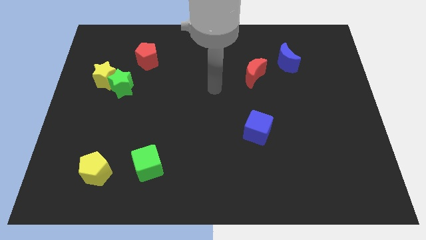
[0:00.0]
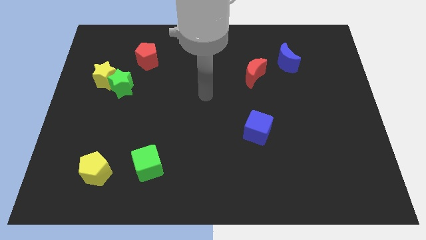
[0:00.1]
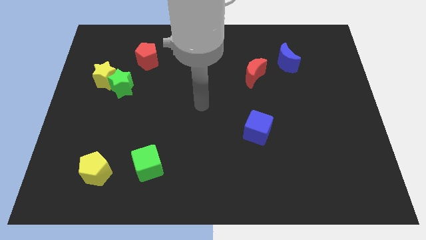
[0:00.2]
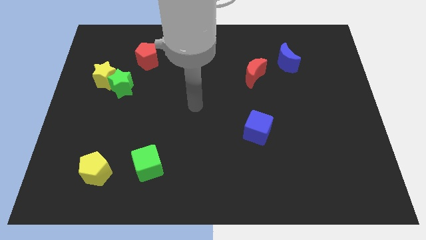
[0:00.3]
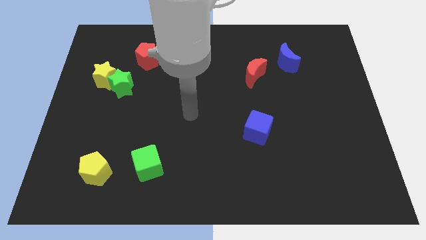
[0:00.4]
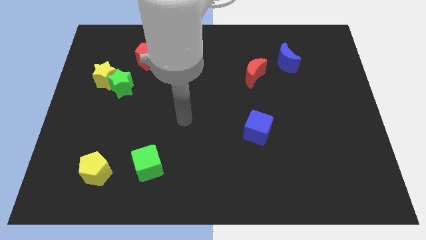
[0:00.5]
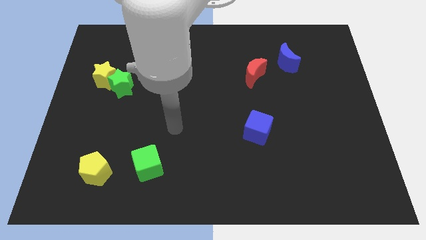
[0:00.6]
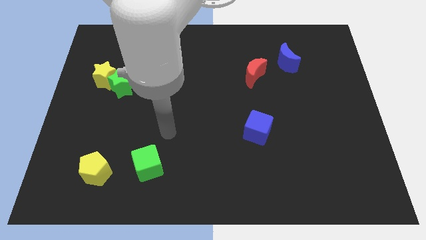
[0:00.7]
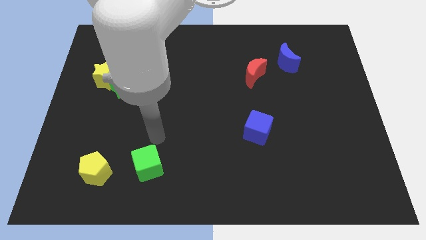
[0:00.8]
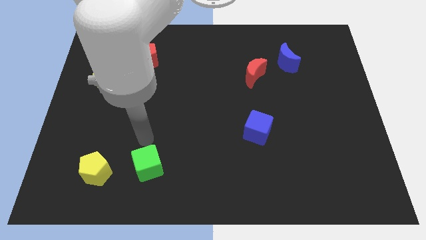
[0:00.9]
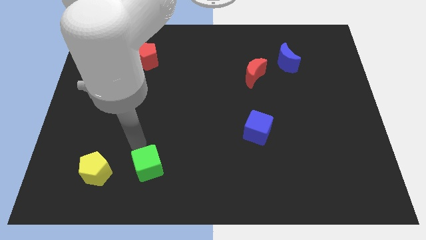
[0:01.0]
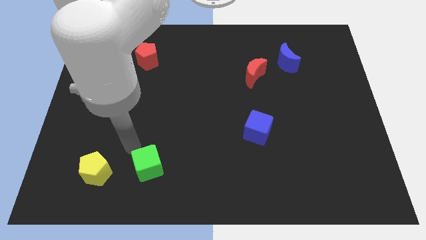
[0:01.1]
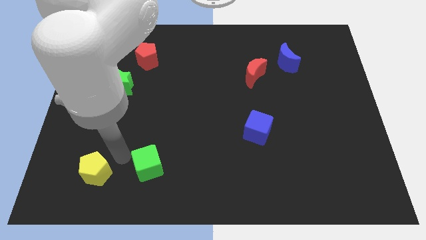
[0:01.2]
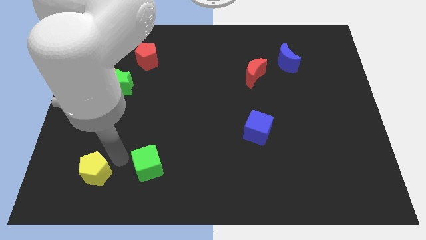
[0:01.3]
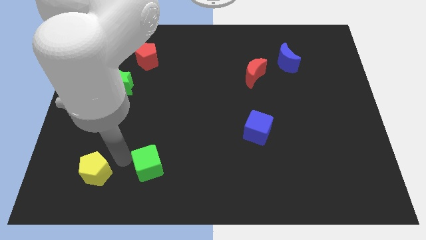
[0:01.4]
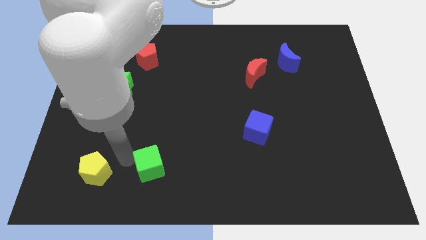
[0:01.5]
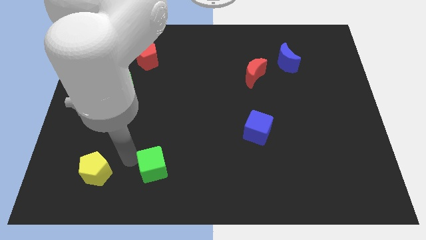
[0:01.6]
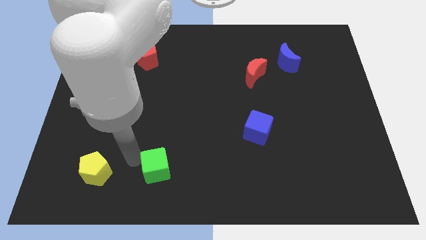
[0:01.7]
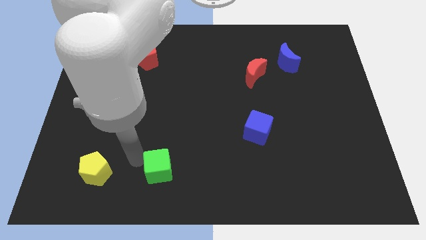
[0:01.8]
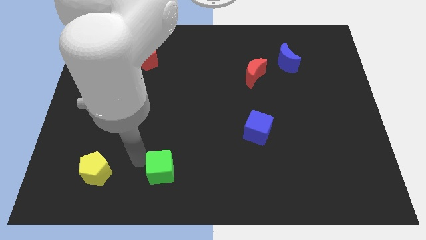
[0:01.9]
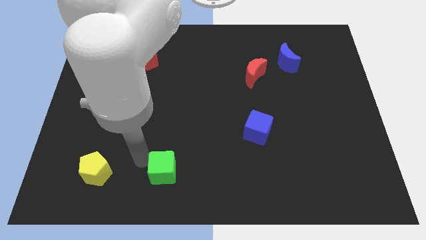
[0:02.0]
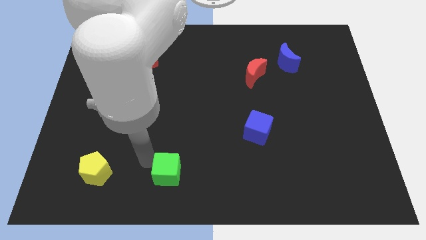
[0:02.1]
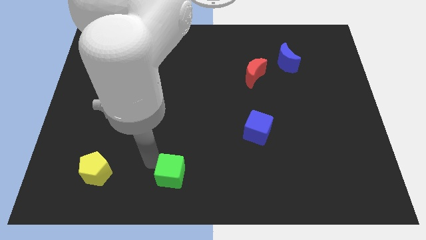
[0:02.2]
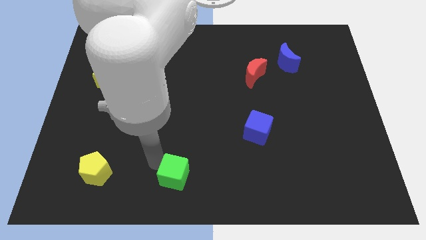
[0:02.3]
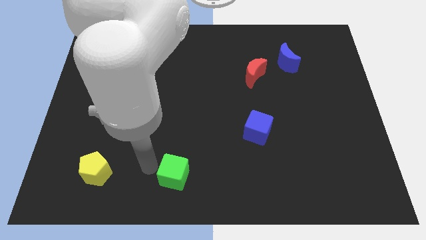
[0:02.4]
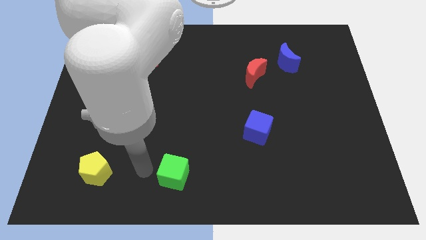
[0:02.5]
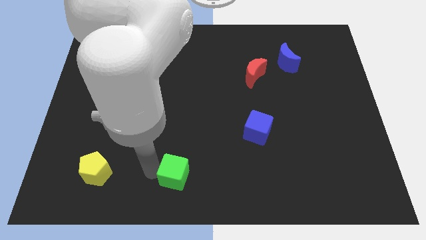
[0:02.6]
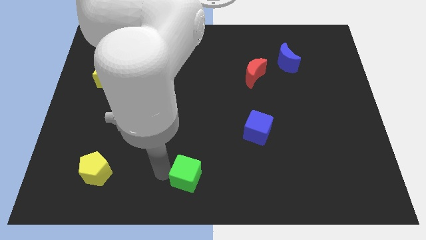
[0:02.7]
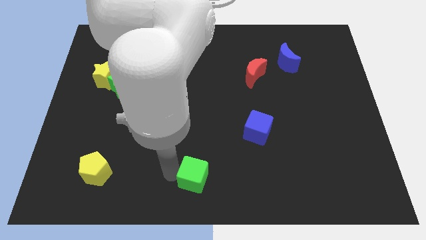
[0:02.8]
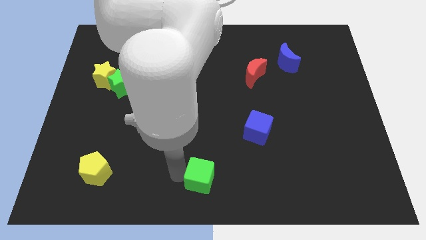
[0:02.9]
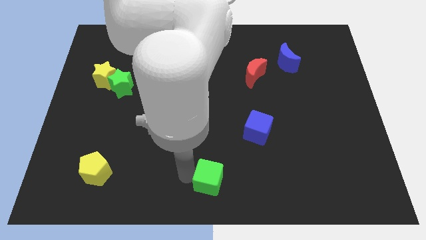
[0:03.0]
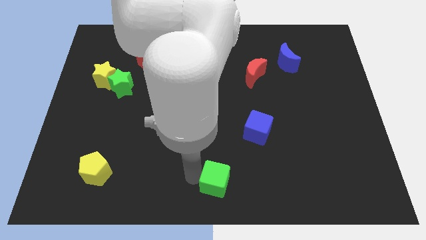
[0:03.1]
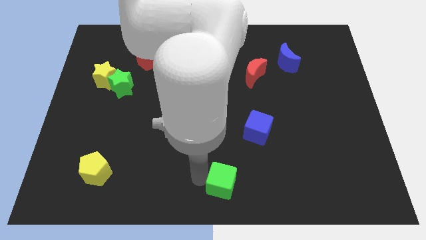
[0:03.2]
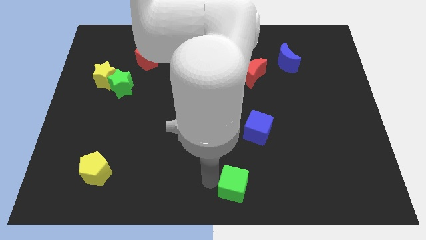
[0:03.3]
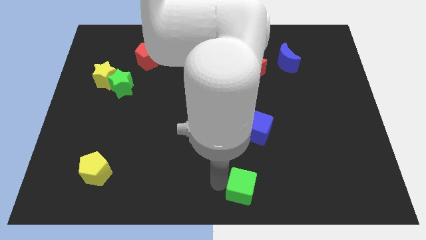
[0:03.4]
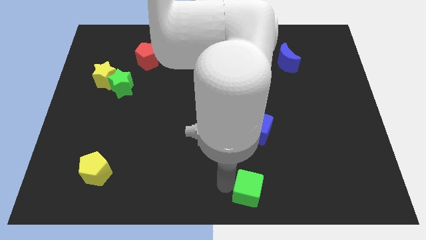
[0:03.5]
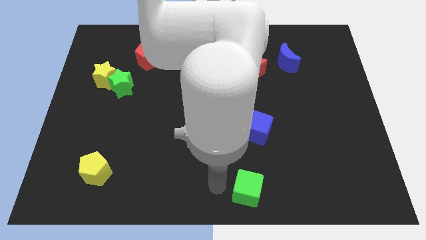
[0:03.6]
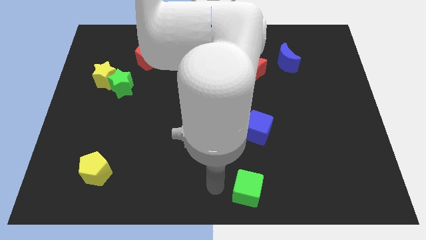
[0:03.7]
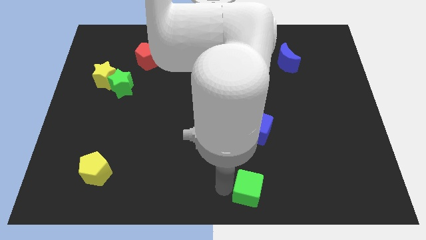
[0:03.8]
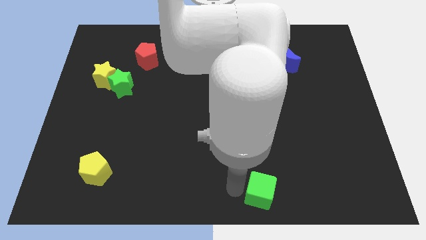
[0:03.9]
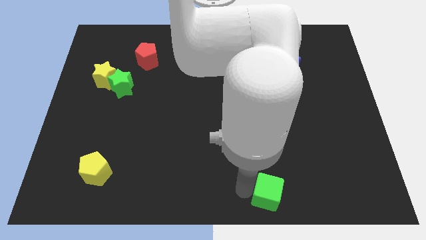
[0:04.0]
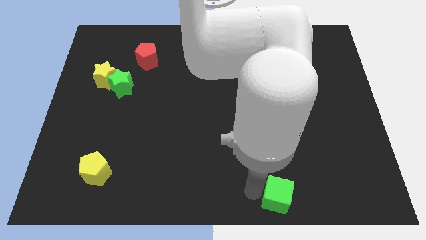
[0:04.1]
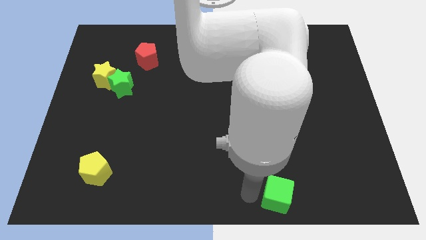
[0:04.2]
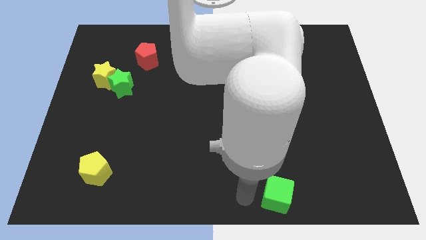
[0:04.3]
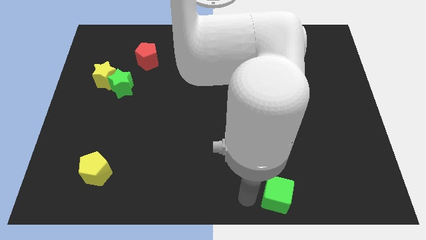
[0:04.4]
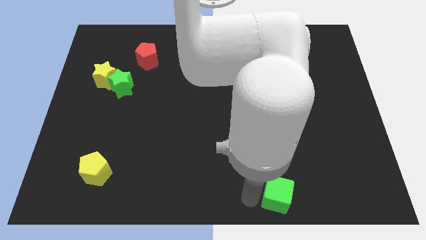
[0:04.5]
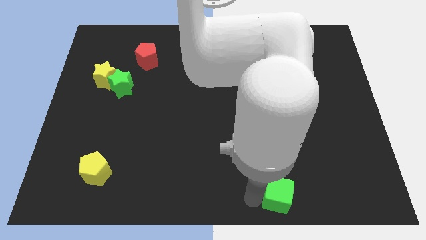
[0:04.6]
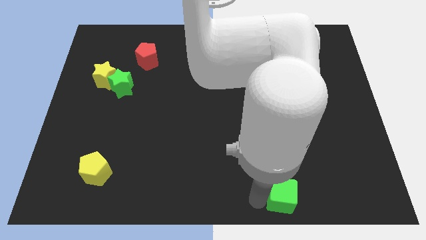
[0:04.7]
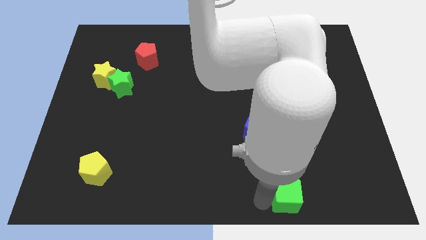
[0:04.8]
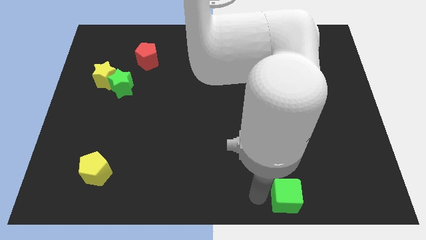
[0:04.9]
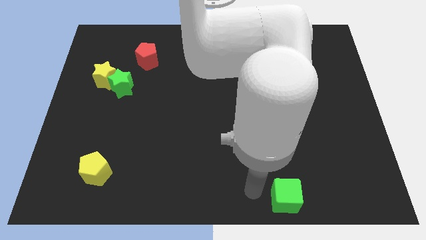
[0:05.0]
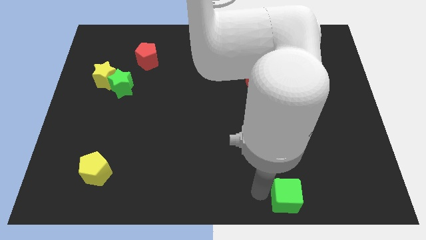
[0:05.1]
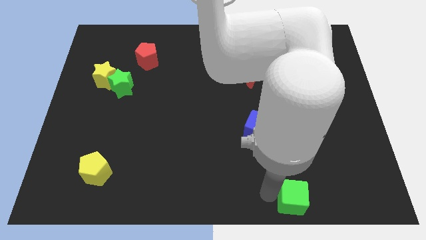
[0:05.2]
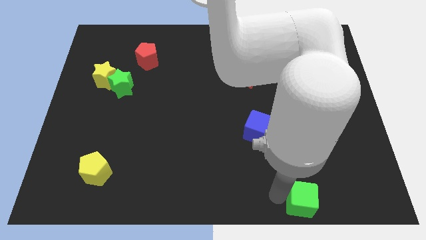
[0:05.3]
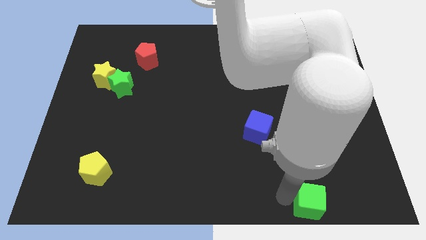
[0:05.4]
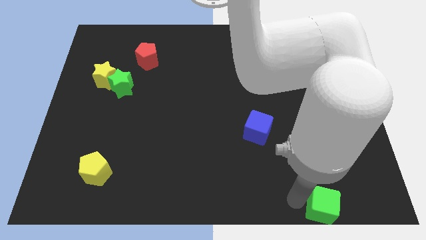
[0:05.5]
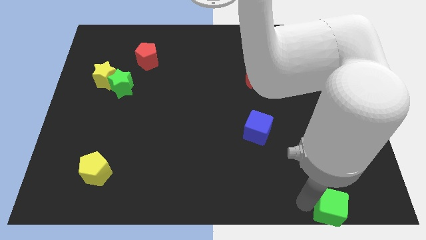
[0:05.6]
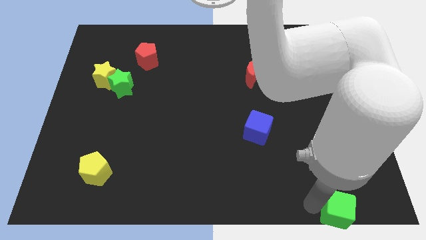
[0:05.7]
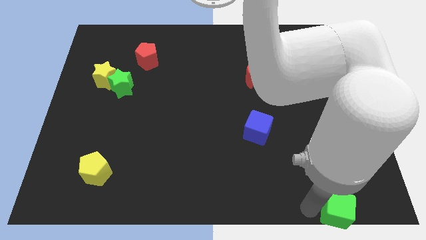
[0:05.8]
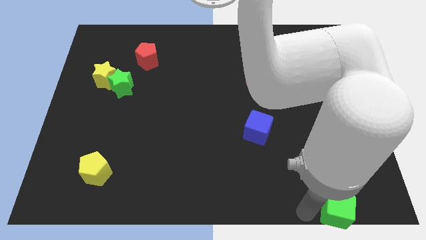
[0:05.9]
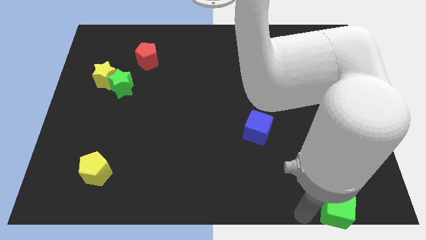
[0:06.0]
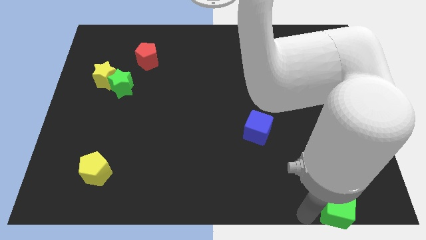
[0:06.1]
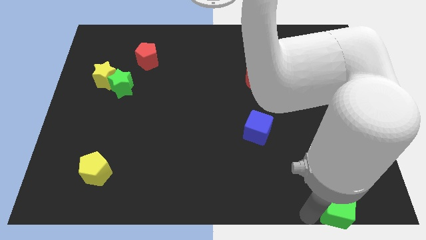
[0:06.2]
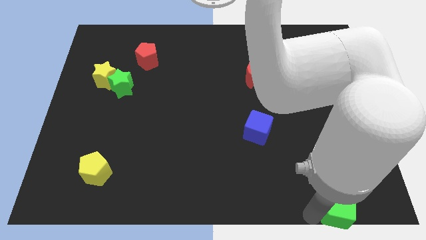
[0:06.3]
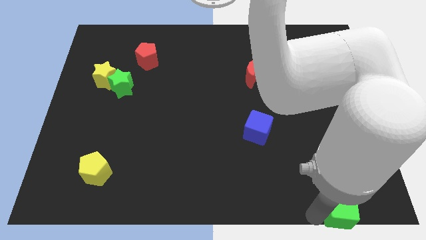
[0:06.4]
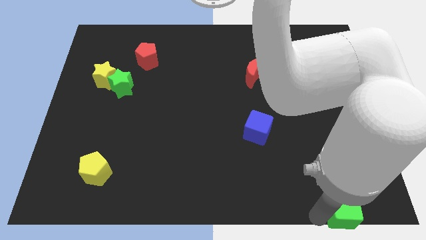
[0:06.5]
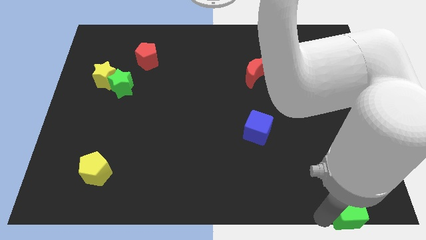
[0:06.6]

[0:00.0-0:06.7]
slide the green cube to the bottom right

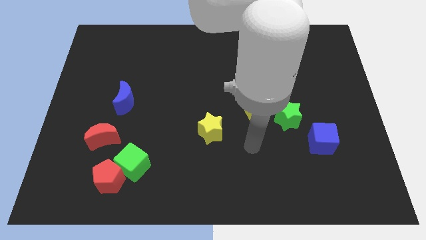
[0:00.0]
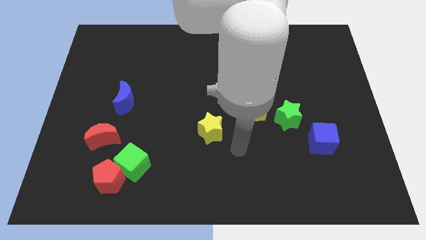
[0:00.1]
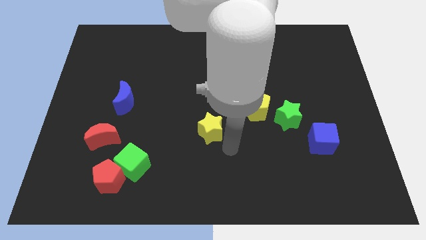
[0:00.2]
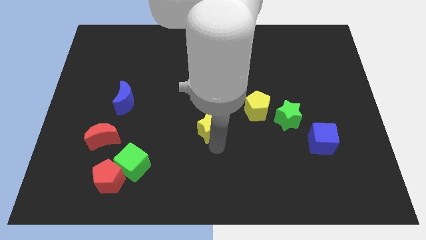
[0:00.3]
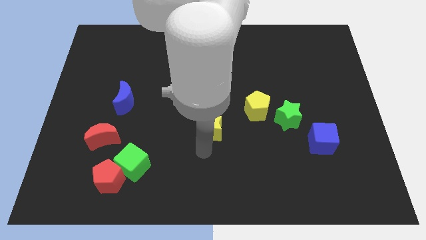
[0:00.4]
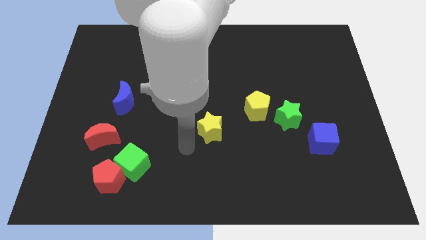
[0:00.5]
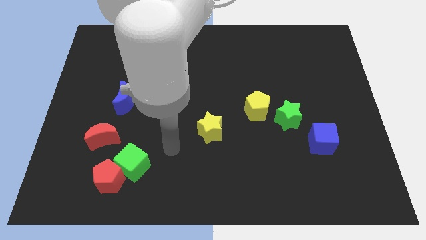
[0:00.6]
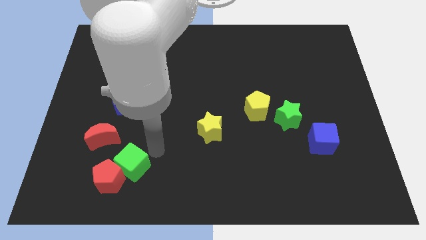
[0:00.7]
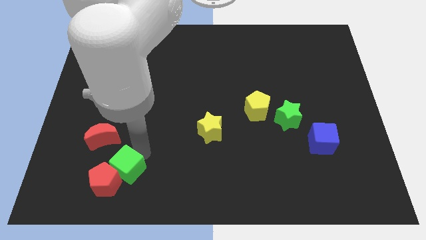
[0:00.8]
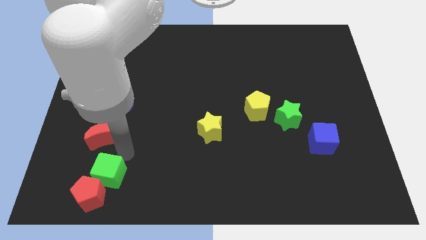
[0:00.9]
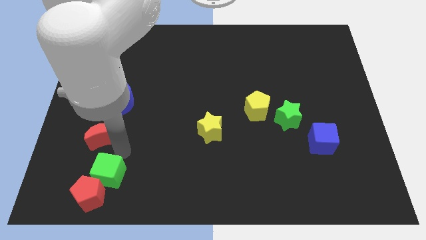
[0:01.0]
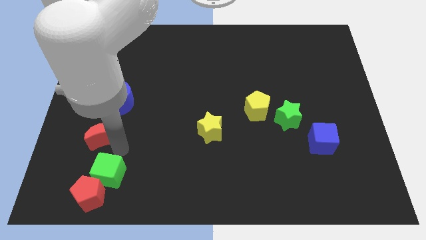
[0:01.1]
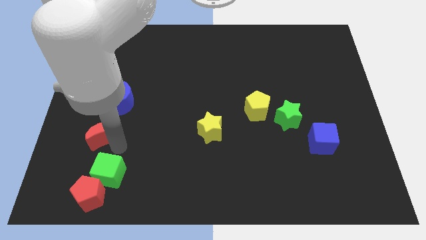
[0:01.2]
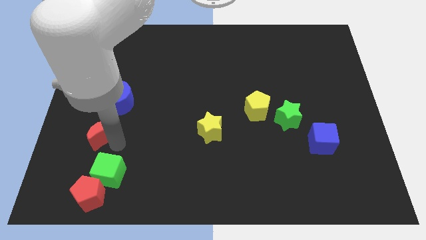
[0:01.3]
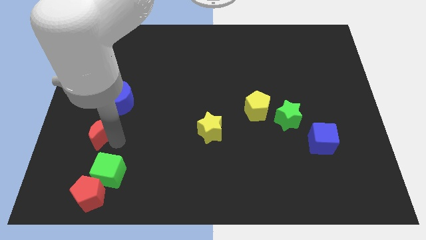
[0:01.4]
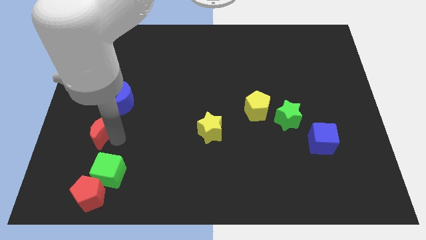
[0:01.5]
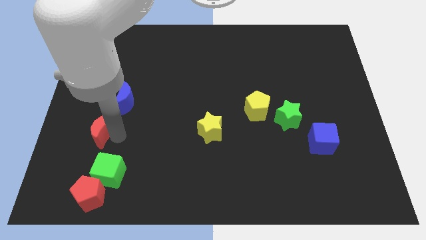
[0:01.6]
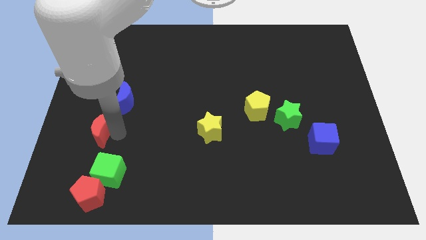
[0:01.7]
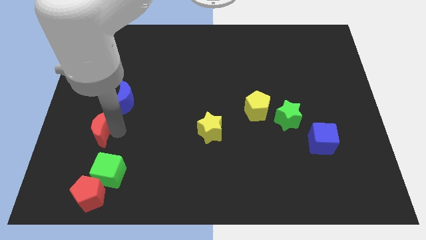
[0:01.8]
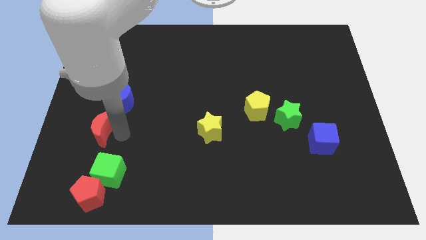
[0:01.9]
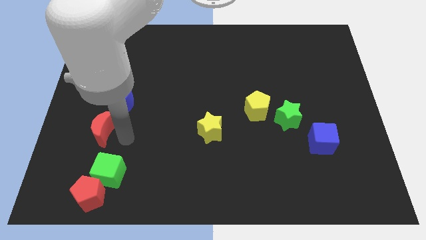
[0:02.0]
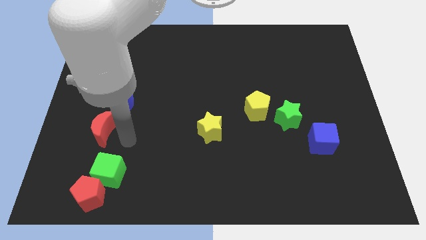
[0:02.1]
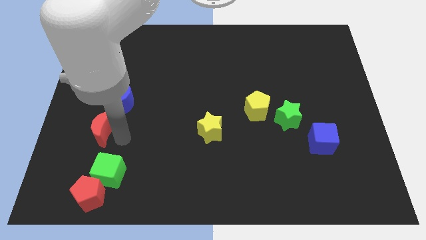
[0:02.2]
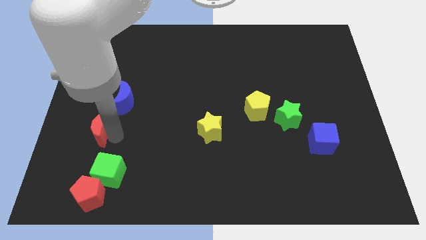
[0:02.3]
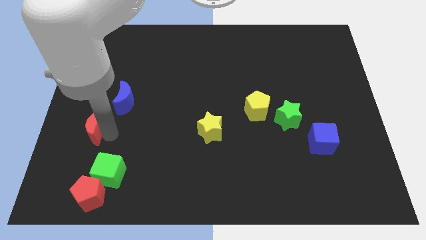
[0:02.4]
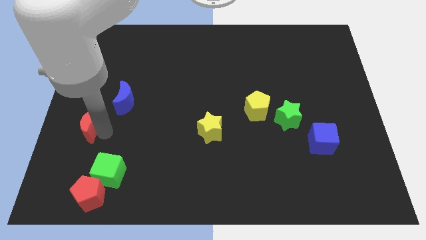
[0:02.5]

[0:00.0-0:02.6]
slide the red moon to the center left
